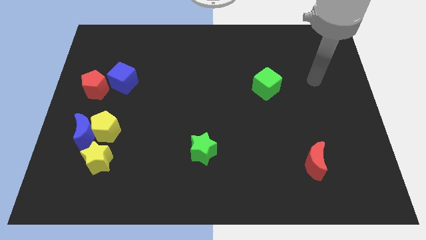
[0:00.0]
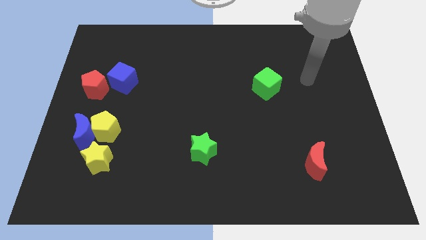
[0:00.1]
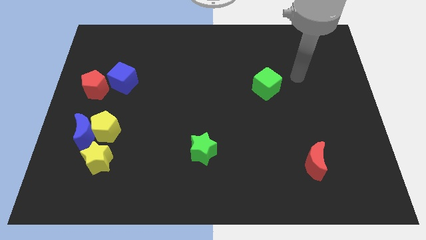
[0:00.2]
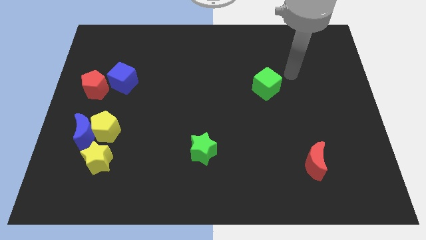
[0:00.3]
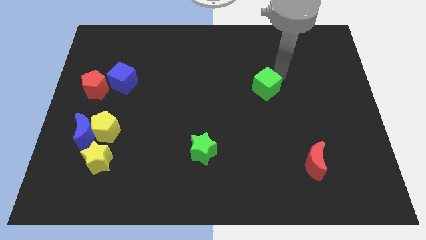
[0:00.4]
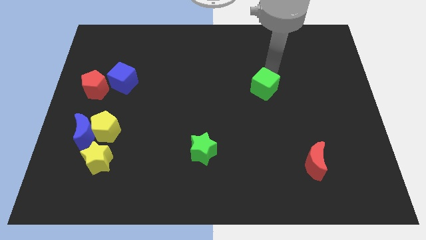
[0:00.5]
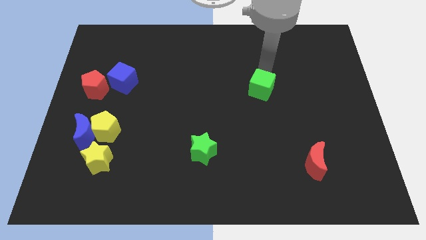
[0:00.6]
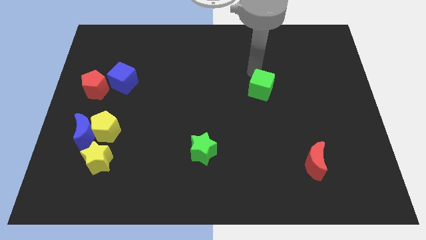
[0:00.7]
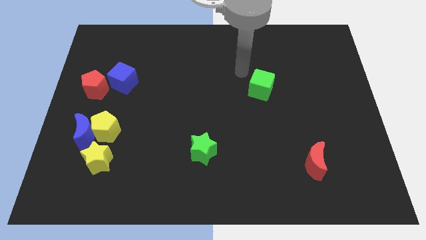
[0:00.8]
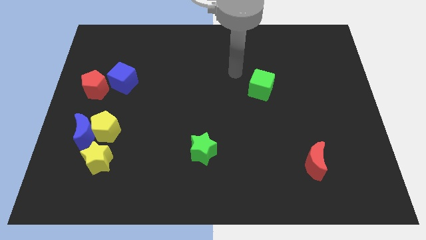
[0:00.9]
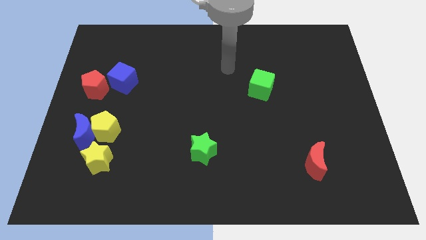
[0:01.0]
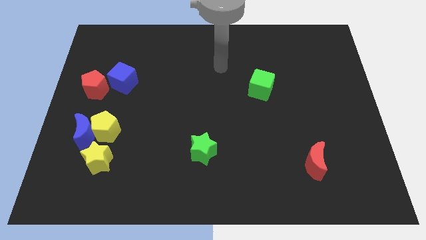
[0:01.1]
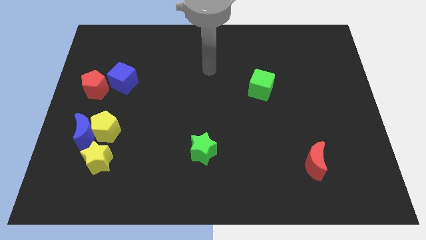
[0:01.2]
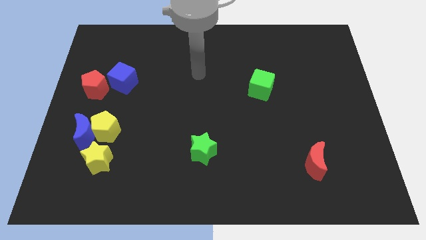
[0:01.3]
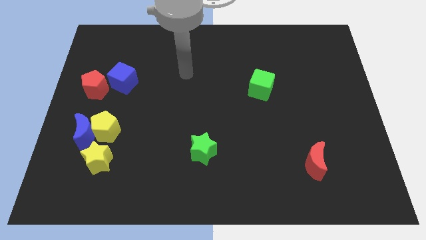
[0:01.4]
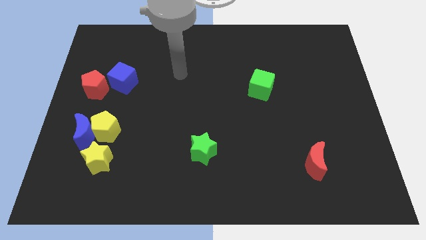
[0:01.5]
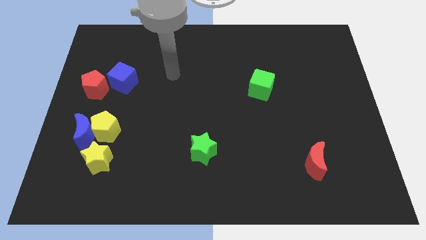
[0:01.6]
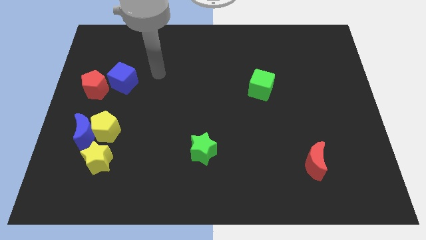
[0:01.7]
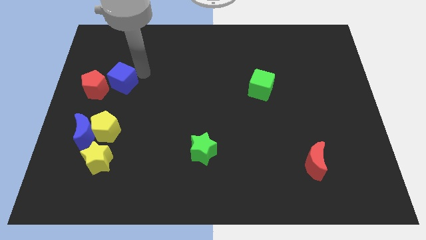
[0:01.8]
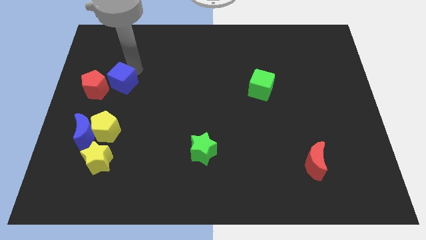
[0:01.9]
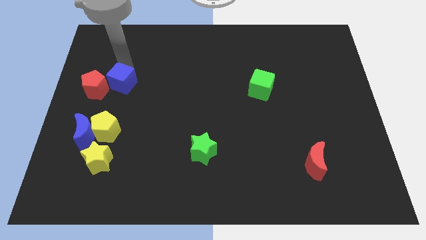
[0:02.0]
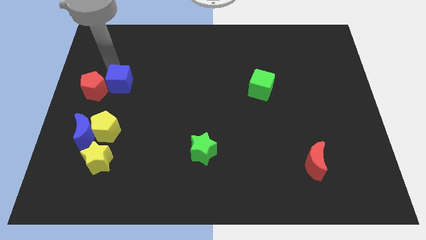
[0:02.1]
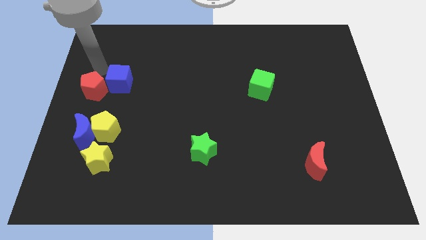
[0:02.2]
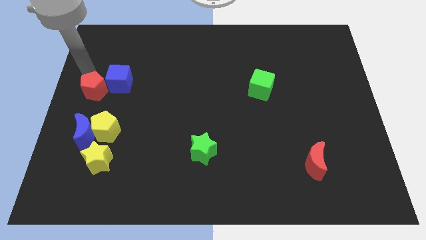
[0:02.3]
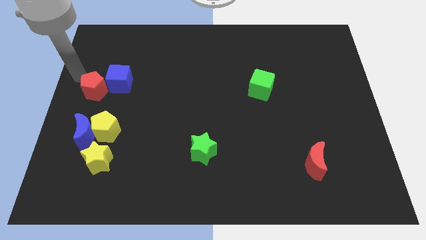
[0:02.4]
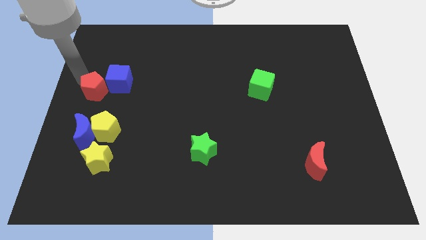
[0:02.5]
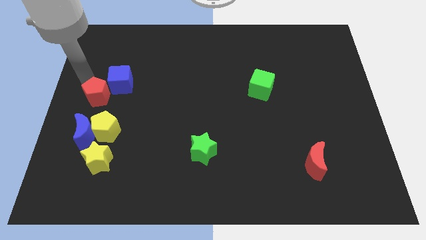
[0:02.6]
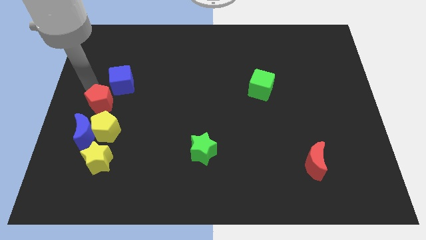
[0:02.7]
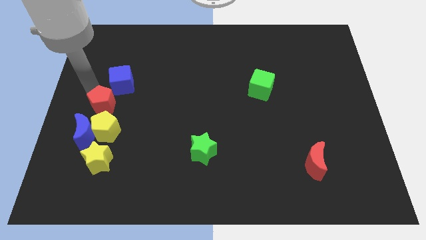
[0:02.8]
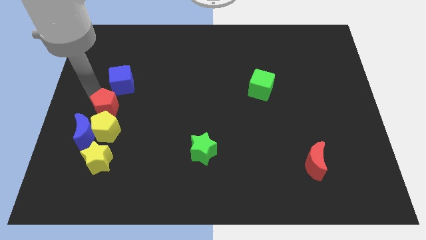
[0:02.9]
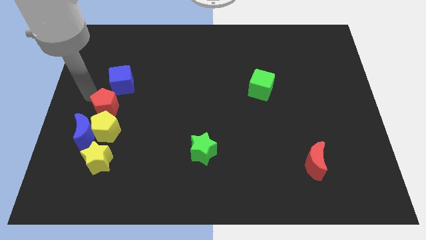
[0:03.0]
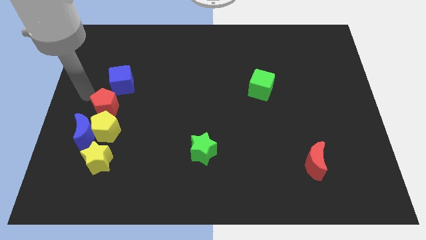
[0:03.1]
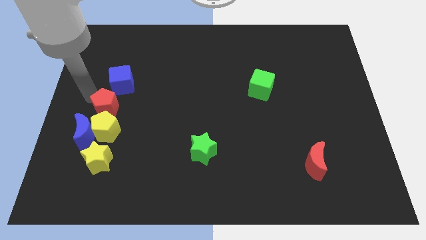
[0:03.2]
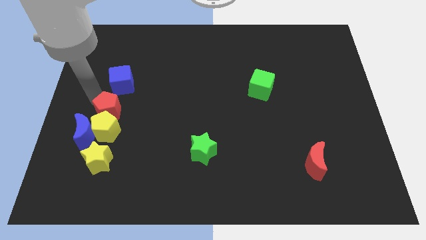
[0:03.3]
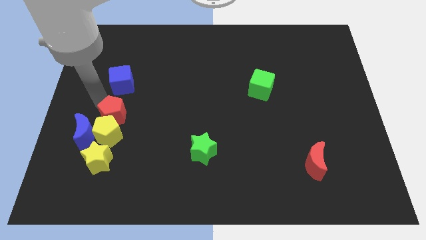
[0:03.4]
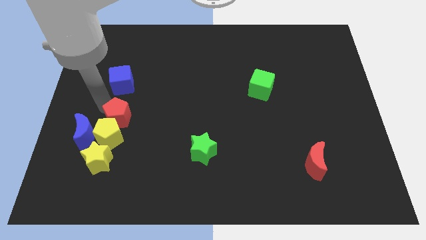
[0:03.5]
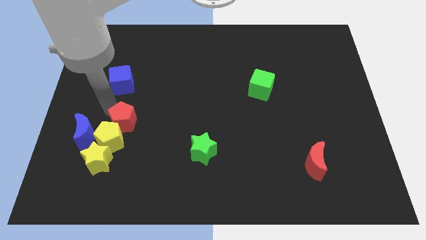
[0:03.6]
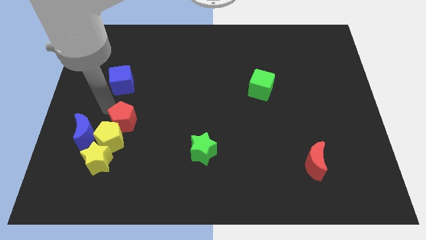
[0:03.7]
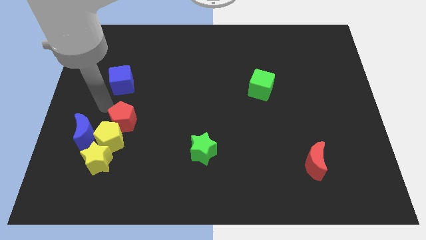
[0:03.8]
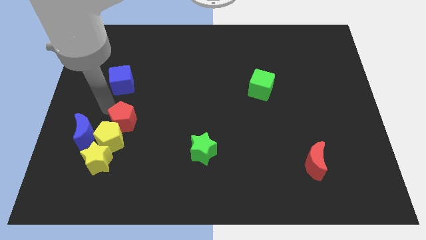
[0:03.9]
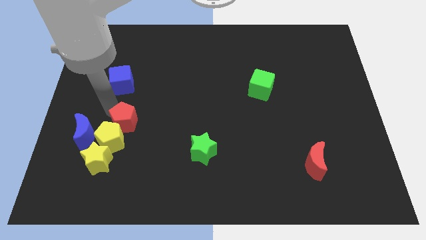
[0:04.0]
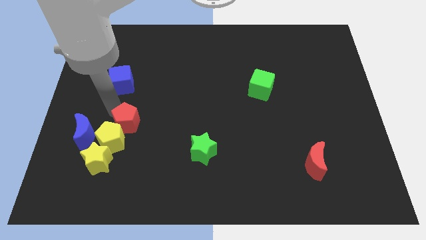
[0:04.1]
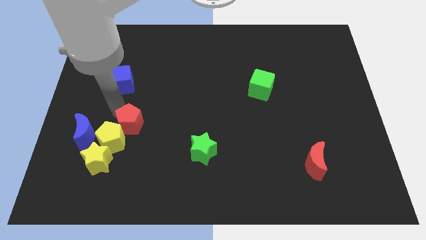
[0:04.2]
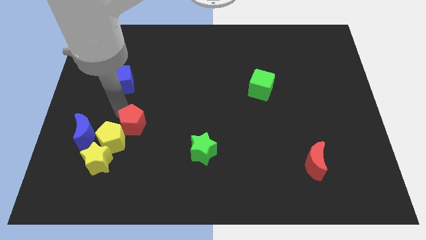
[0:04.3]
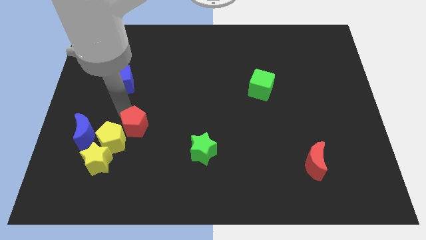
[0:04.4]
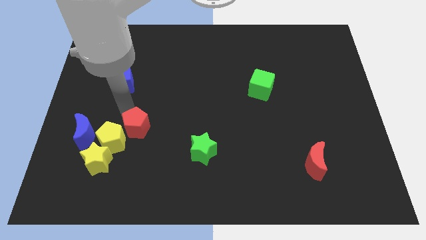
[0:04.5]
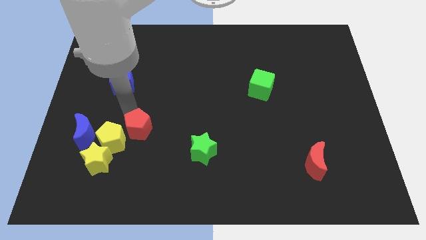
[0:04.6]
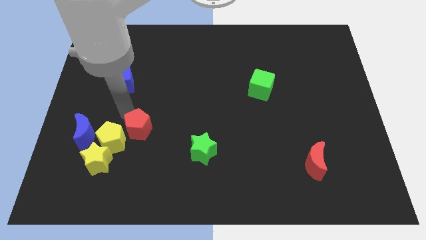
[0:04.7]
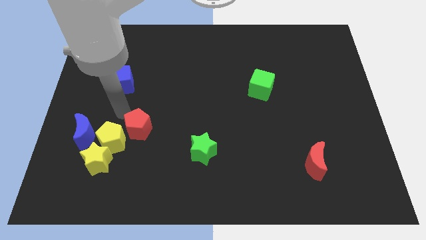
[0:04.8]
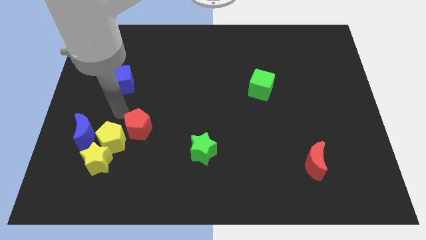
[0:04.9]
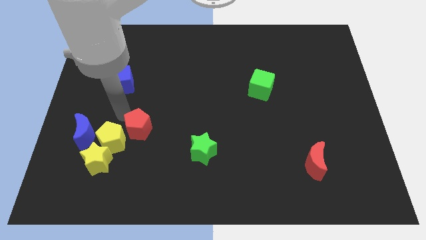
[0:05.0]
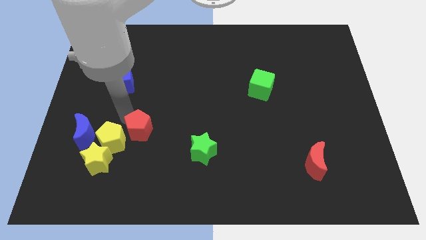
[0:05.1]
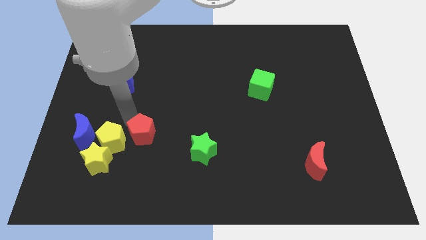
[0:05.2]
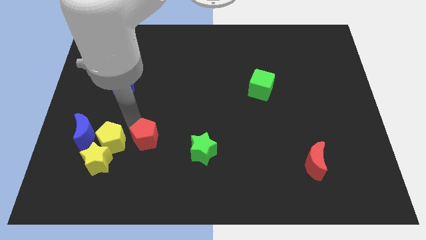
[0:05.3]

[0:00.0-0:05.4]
push the red pentagon diagonally downwards and to the right

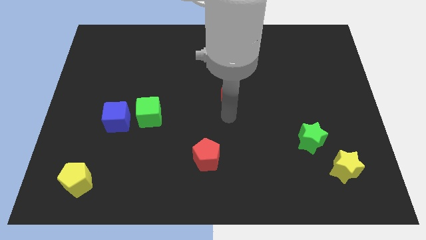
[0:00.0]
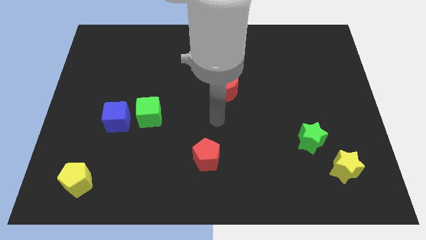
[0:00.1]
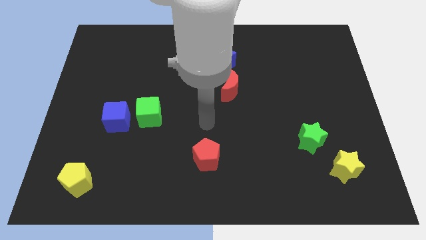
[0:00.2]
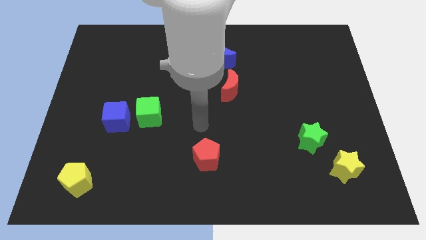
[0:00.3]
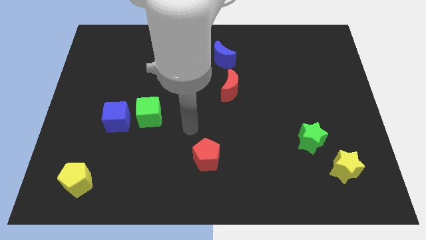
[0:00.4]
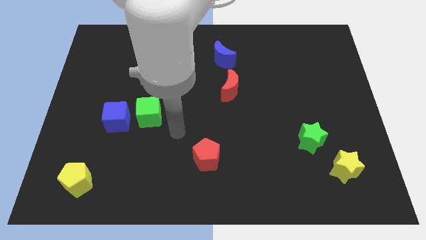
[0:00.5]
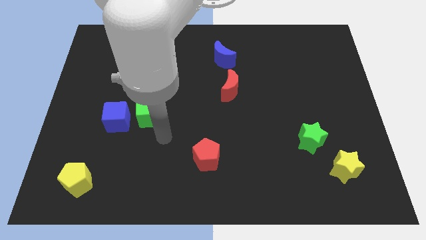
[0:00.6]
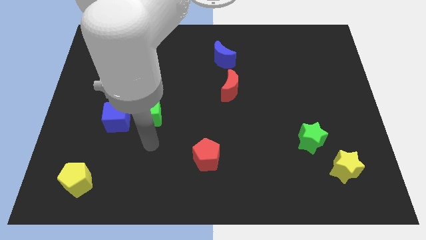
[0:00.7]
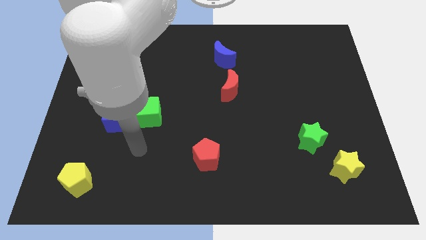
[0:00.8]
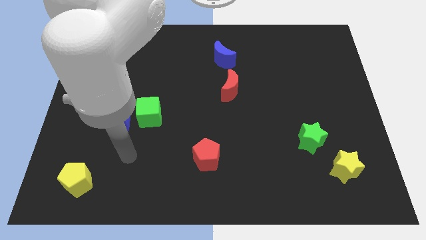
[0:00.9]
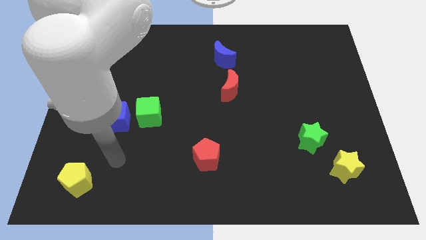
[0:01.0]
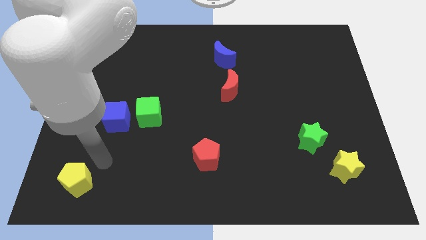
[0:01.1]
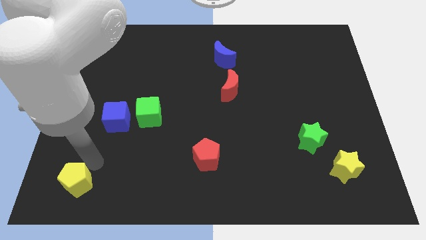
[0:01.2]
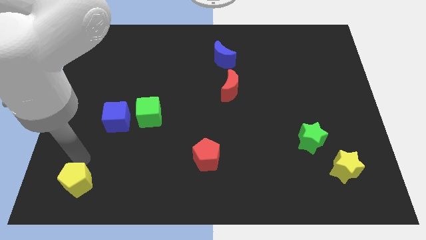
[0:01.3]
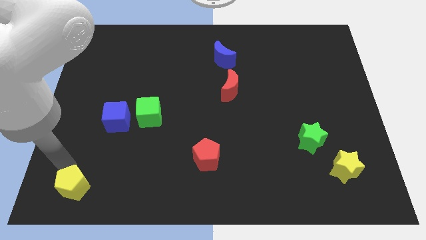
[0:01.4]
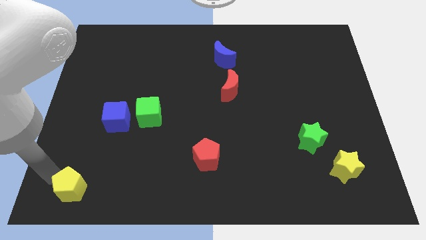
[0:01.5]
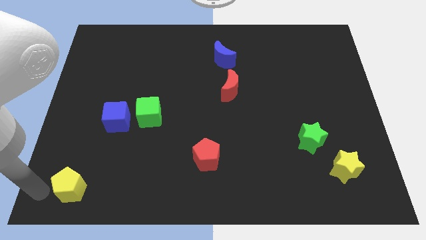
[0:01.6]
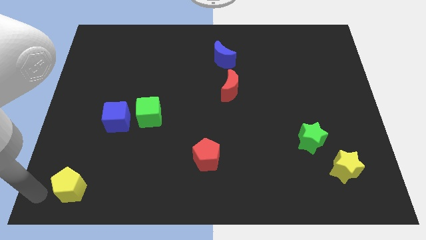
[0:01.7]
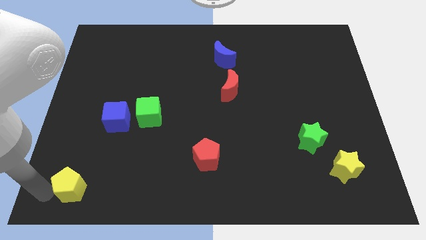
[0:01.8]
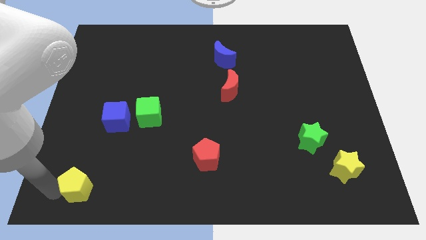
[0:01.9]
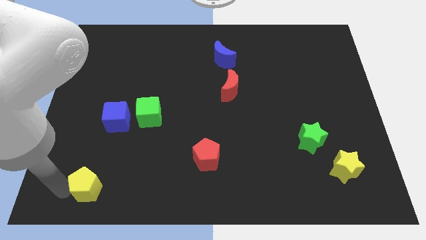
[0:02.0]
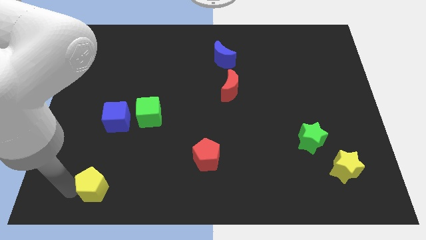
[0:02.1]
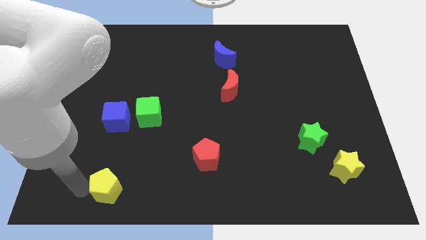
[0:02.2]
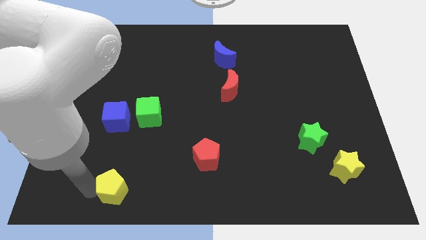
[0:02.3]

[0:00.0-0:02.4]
slightly push the yellow pentagon right

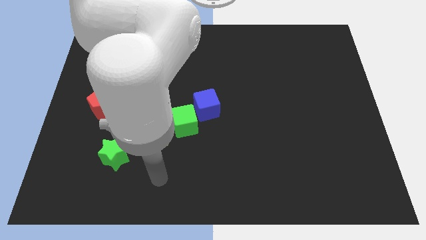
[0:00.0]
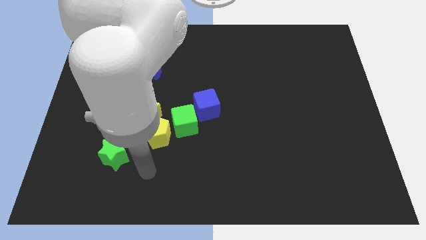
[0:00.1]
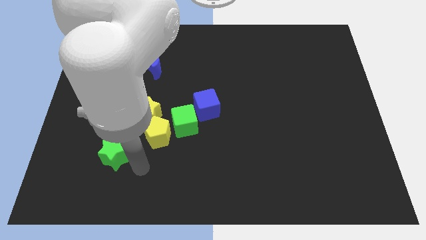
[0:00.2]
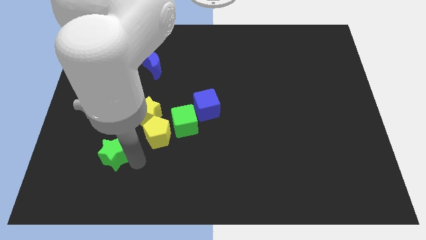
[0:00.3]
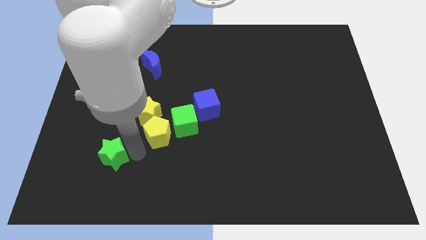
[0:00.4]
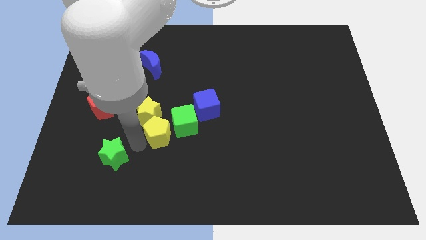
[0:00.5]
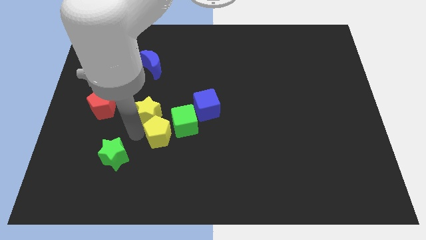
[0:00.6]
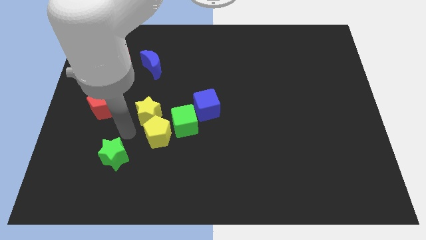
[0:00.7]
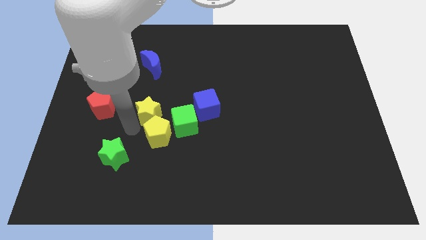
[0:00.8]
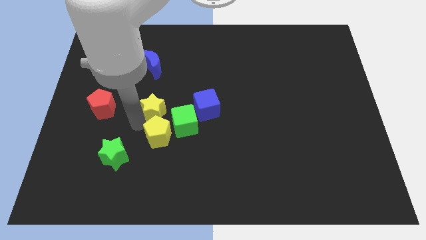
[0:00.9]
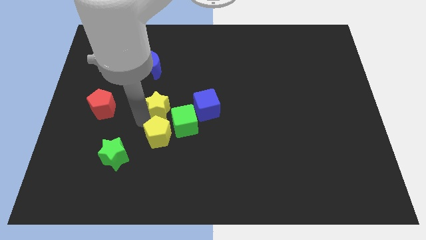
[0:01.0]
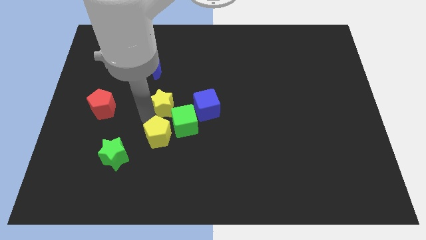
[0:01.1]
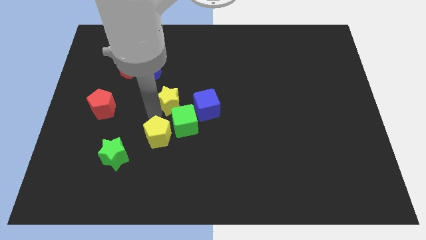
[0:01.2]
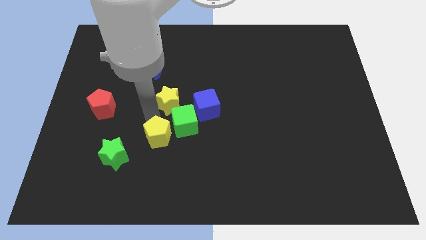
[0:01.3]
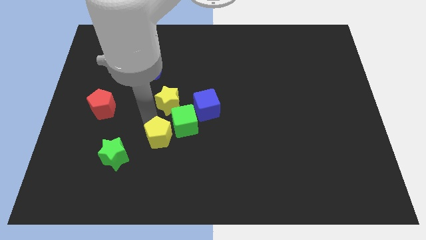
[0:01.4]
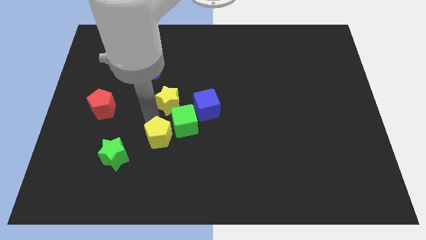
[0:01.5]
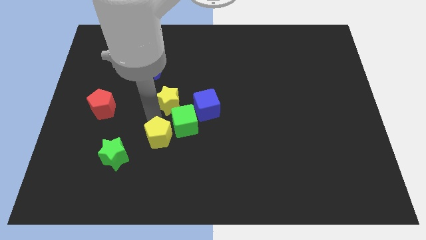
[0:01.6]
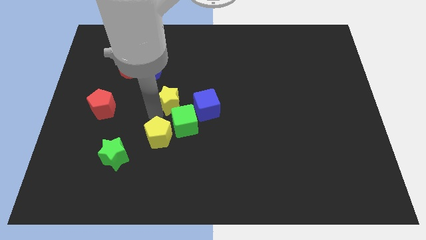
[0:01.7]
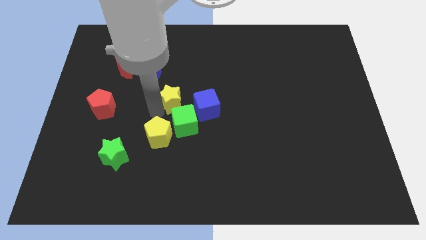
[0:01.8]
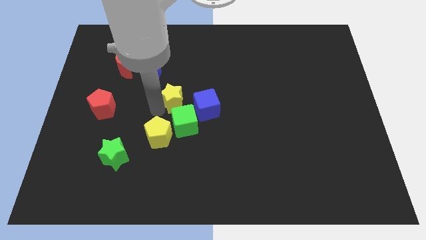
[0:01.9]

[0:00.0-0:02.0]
slide the yellow star diagonally up and right a little
